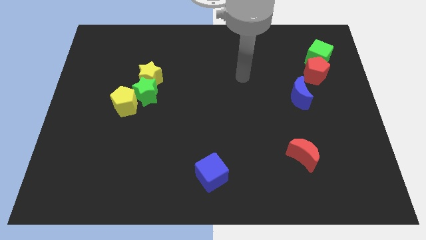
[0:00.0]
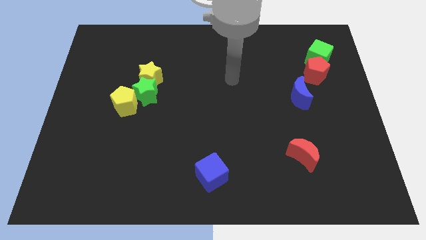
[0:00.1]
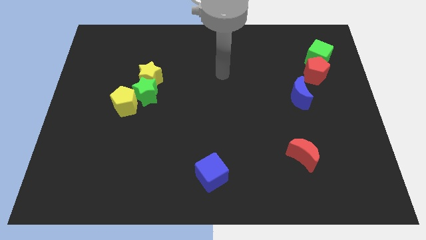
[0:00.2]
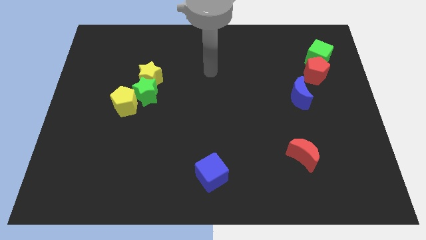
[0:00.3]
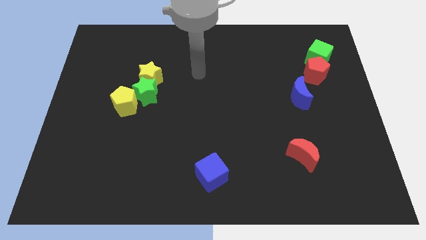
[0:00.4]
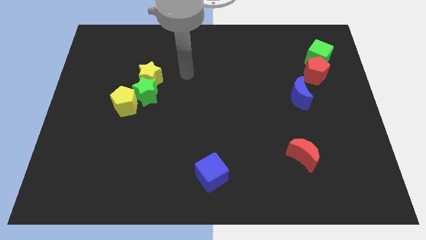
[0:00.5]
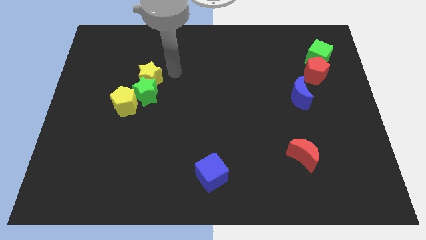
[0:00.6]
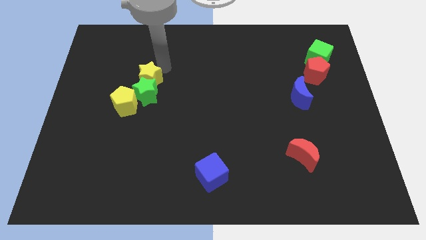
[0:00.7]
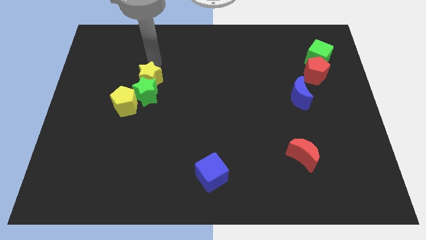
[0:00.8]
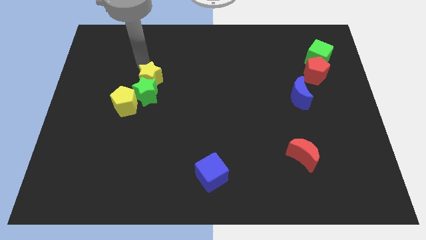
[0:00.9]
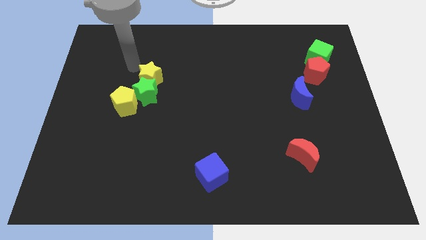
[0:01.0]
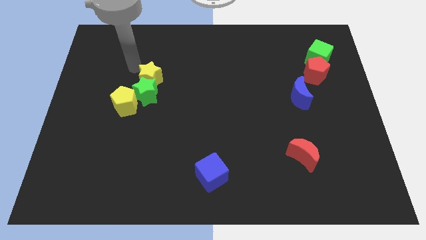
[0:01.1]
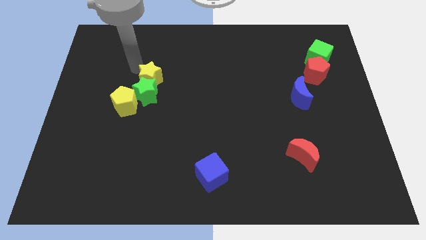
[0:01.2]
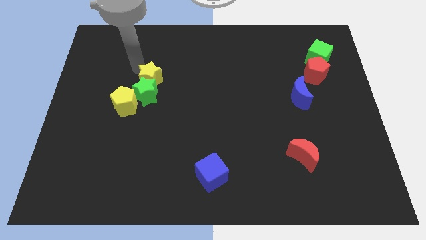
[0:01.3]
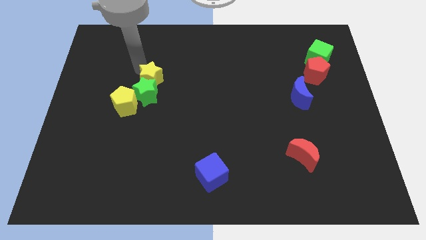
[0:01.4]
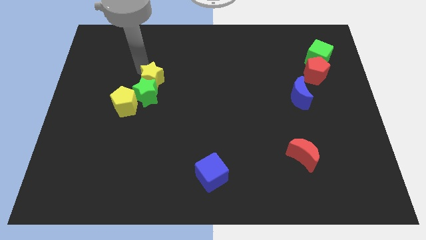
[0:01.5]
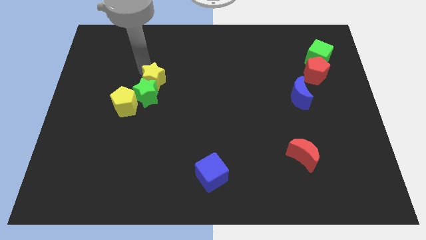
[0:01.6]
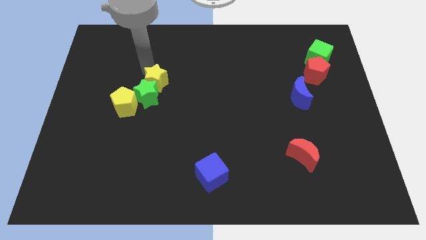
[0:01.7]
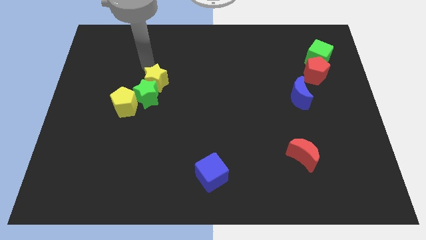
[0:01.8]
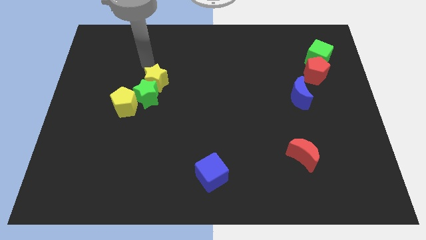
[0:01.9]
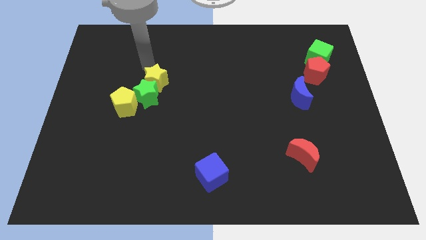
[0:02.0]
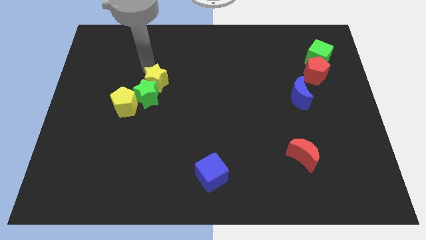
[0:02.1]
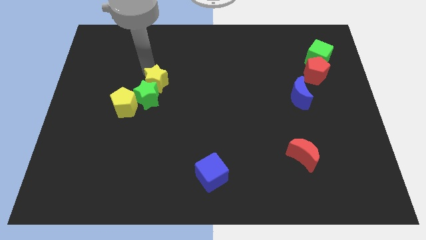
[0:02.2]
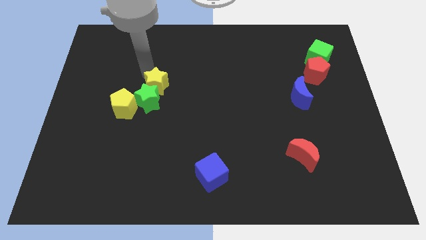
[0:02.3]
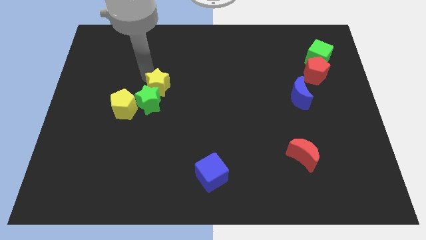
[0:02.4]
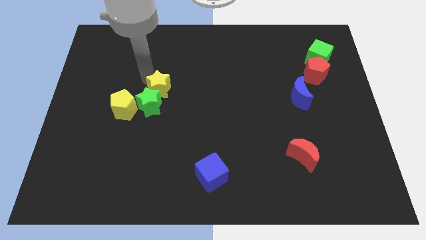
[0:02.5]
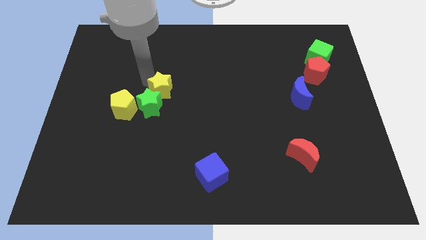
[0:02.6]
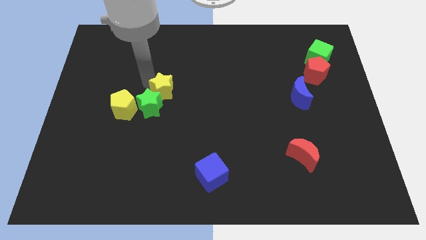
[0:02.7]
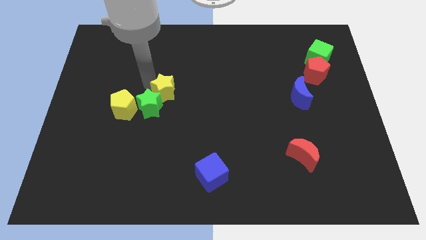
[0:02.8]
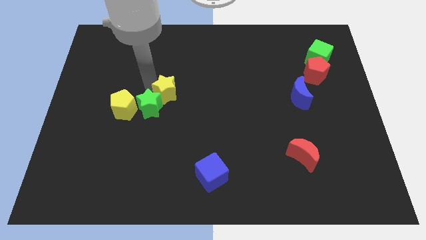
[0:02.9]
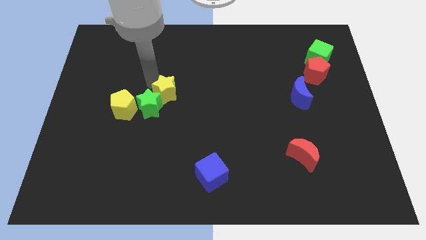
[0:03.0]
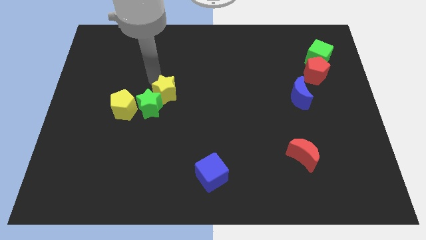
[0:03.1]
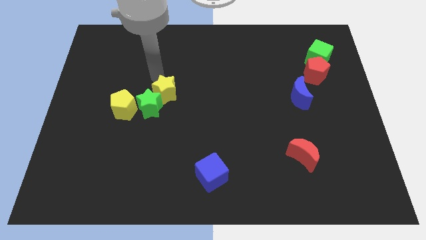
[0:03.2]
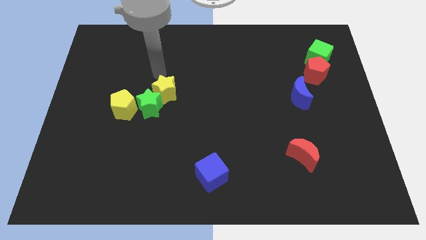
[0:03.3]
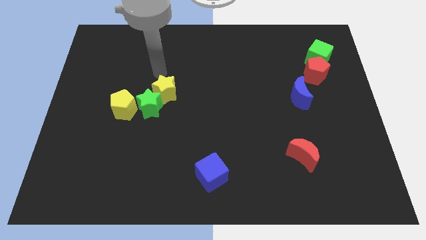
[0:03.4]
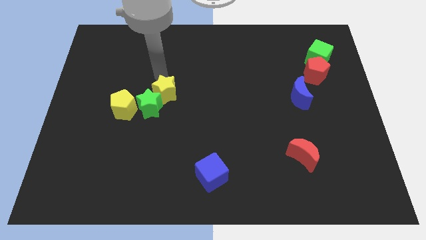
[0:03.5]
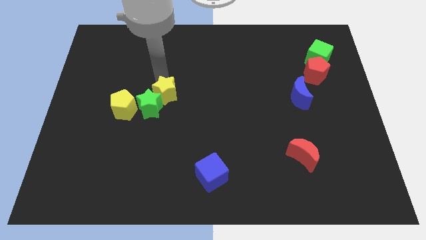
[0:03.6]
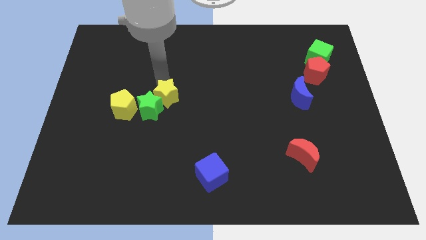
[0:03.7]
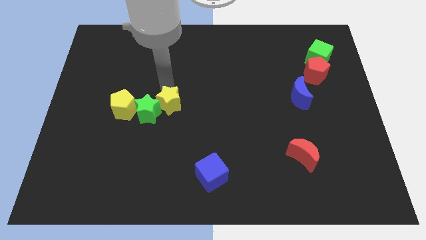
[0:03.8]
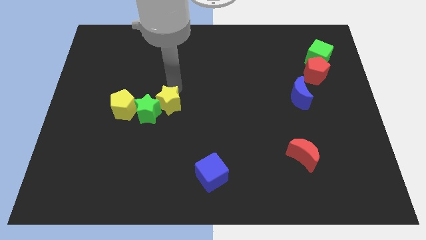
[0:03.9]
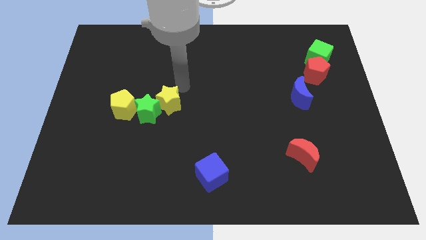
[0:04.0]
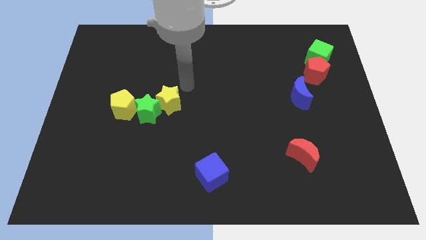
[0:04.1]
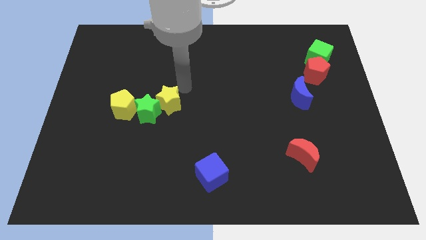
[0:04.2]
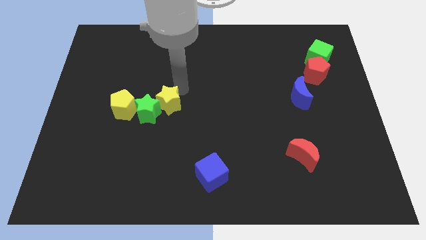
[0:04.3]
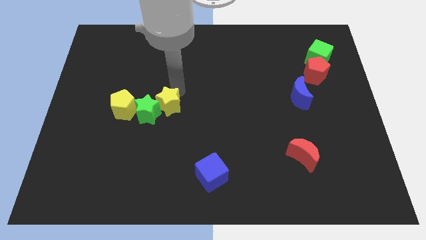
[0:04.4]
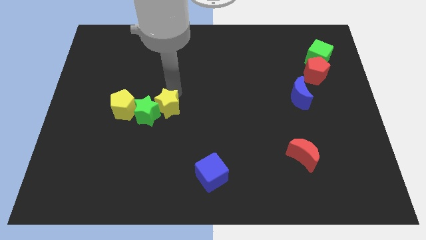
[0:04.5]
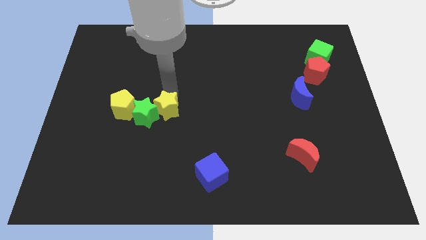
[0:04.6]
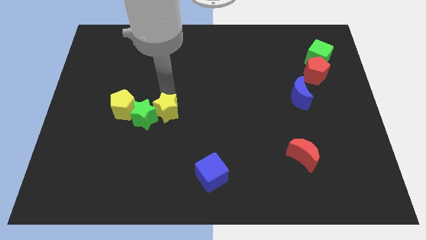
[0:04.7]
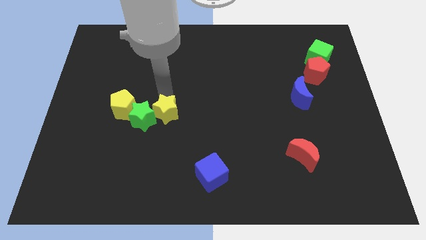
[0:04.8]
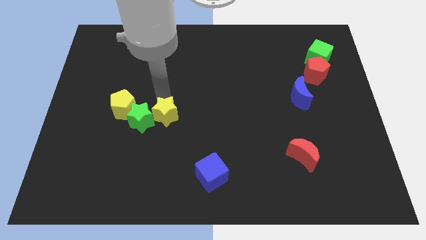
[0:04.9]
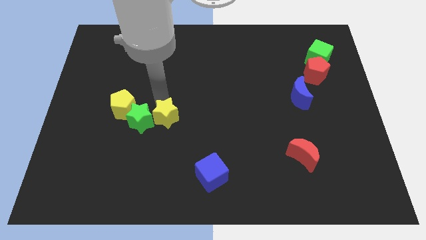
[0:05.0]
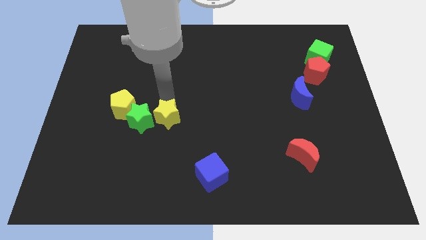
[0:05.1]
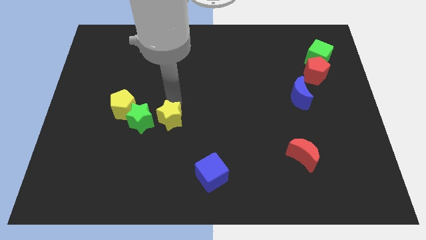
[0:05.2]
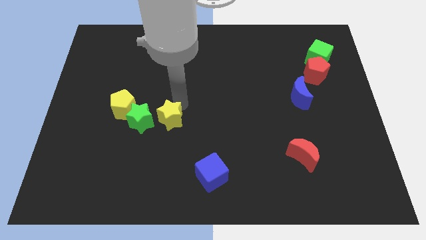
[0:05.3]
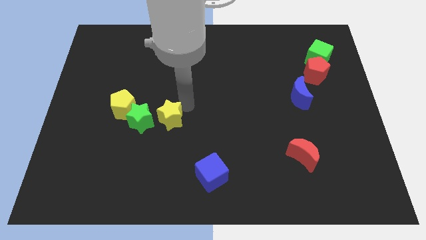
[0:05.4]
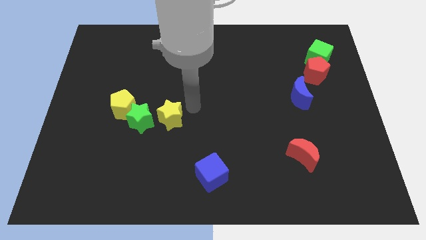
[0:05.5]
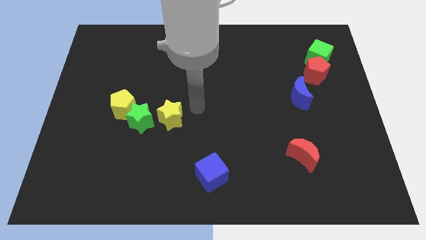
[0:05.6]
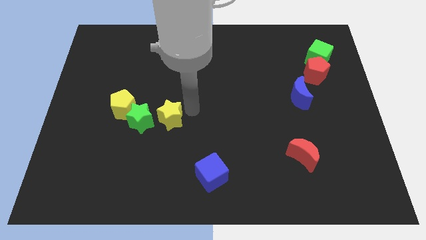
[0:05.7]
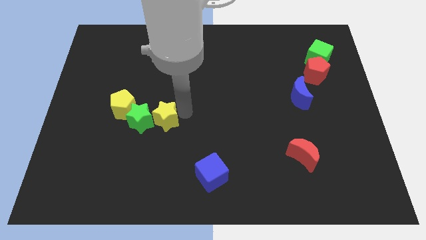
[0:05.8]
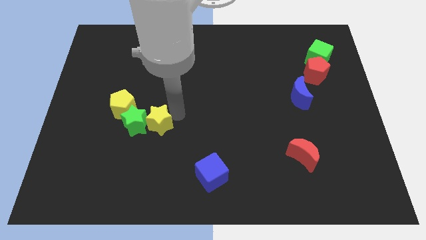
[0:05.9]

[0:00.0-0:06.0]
slide the yellow star to the bottom right of the yellow pentagon
